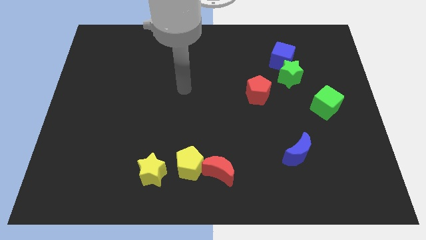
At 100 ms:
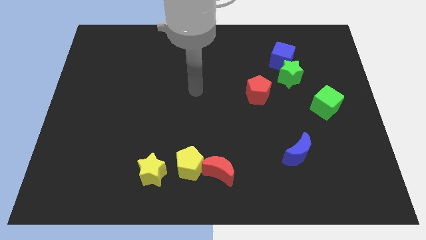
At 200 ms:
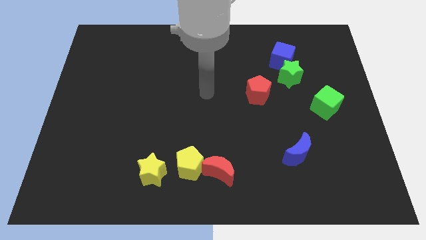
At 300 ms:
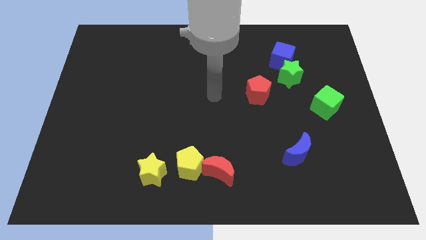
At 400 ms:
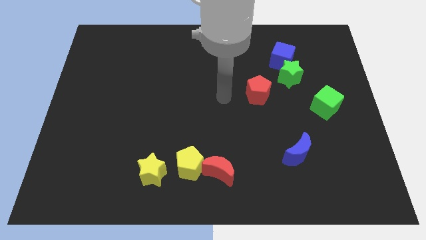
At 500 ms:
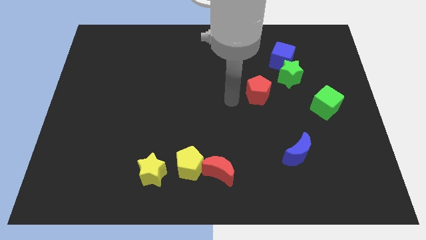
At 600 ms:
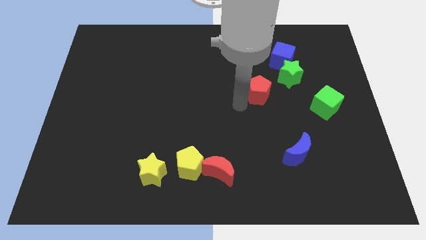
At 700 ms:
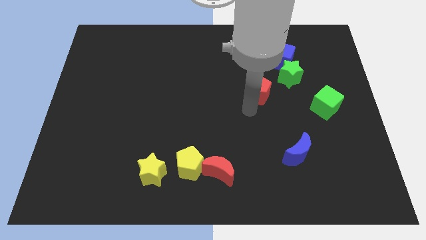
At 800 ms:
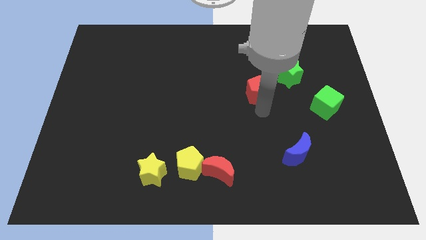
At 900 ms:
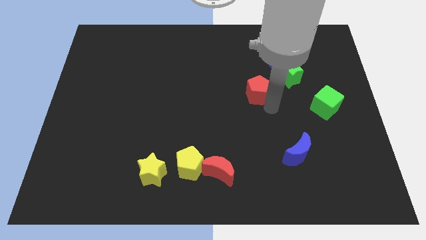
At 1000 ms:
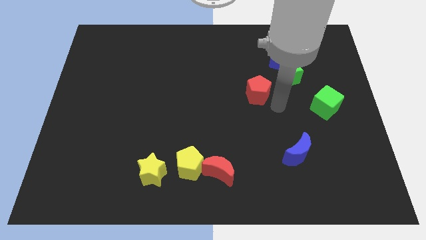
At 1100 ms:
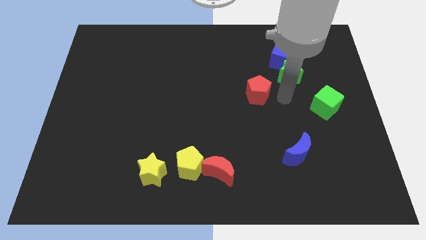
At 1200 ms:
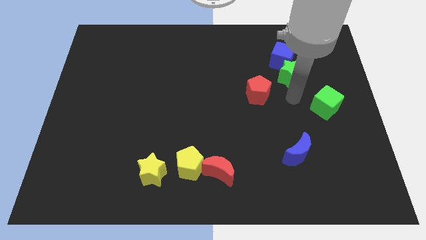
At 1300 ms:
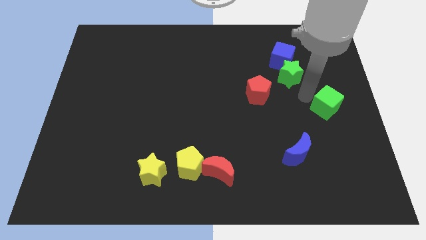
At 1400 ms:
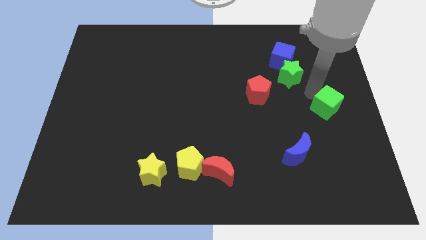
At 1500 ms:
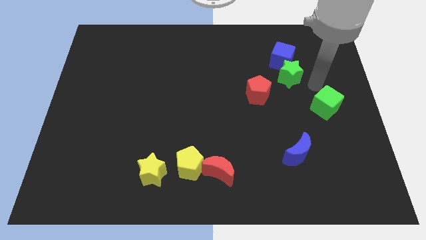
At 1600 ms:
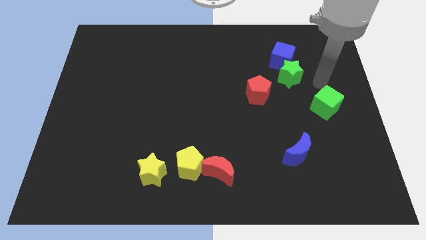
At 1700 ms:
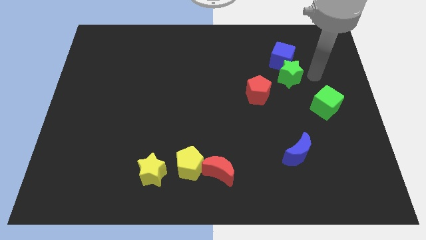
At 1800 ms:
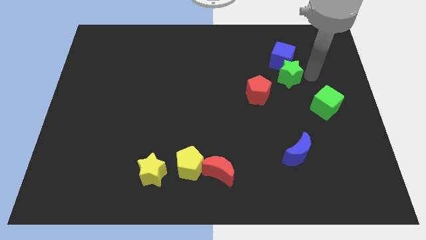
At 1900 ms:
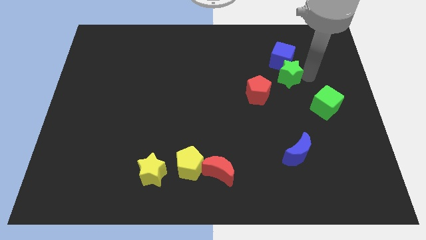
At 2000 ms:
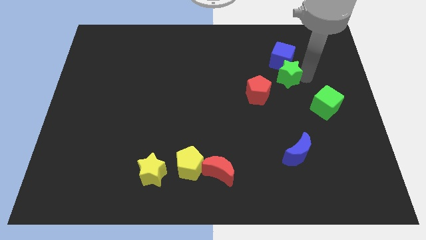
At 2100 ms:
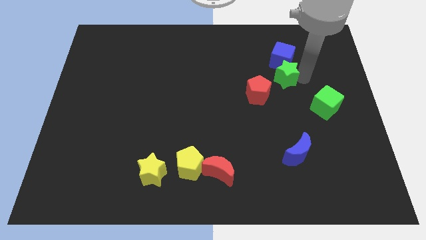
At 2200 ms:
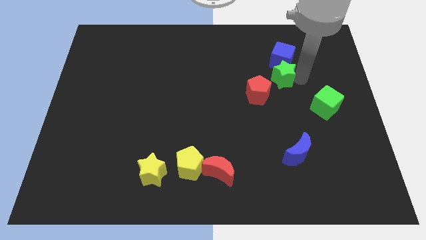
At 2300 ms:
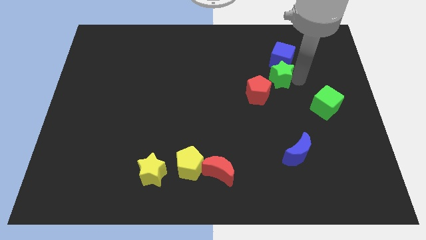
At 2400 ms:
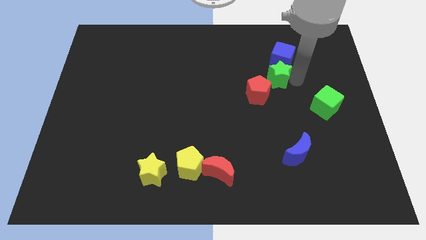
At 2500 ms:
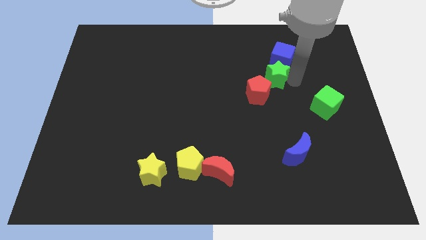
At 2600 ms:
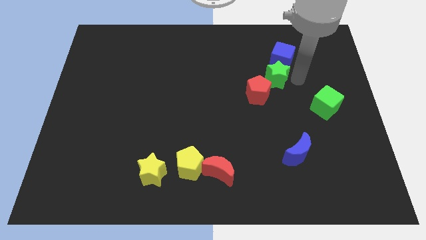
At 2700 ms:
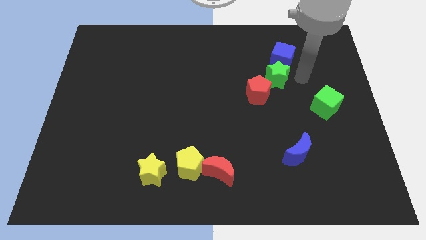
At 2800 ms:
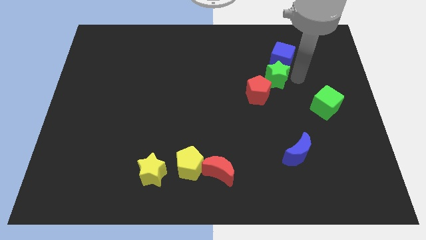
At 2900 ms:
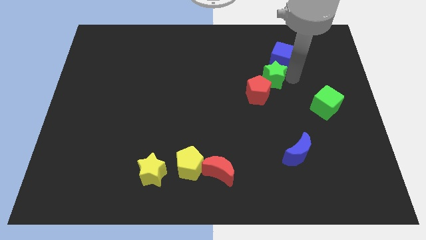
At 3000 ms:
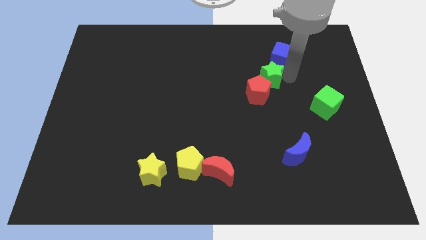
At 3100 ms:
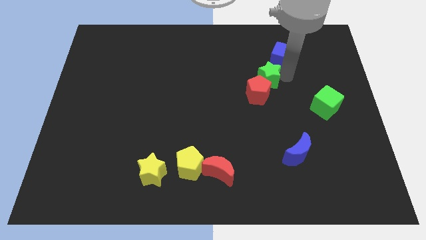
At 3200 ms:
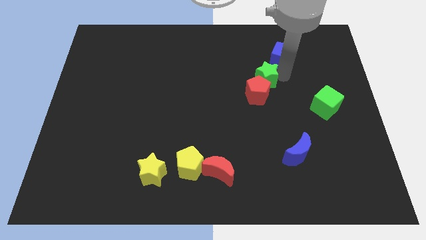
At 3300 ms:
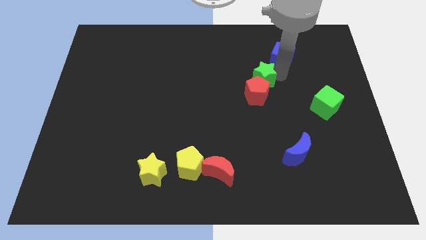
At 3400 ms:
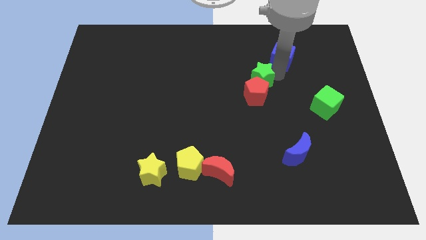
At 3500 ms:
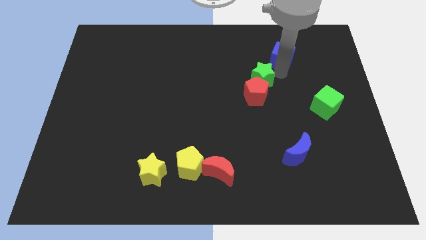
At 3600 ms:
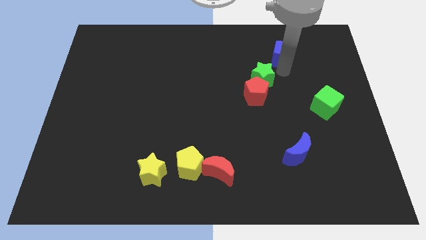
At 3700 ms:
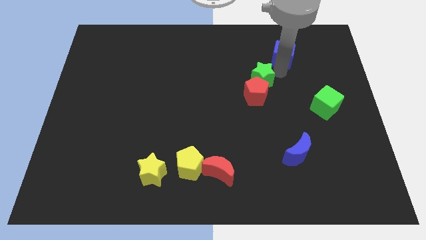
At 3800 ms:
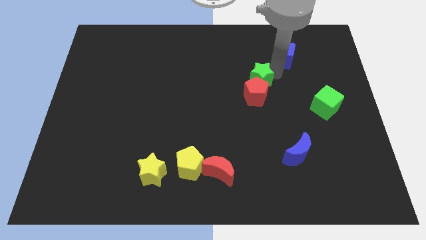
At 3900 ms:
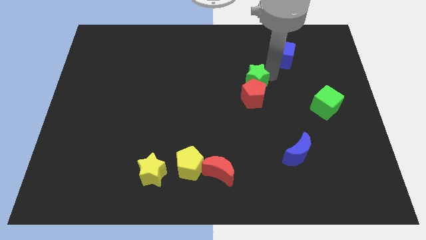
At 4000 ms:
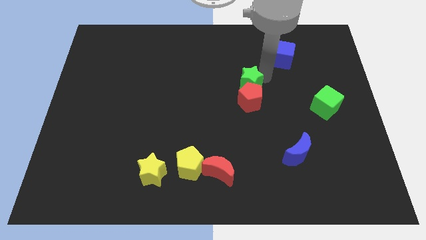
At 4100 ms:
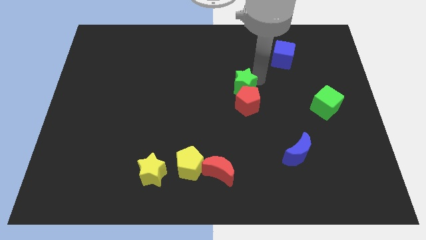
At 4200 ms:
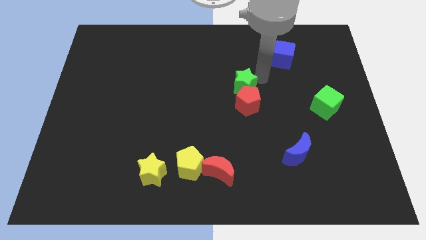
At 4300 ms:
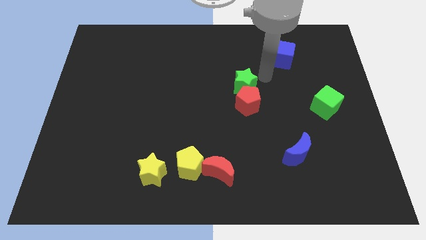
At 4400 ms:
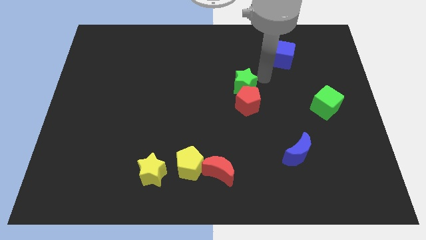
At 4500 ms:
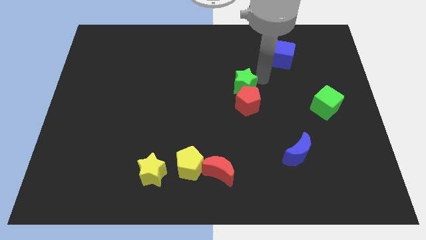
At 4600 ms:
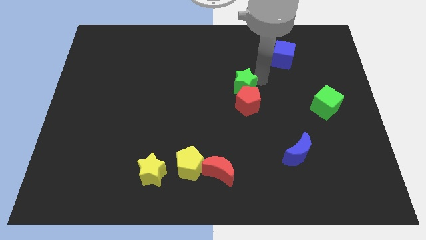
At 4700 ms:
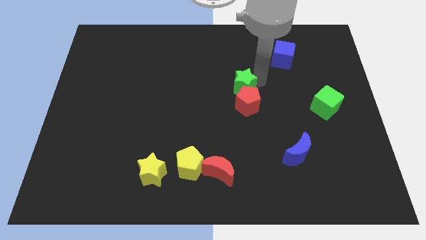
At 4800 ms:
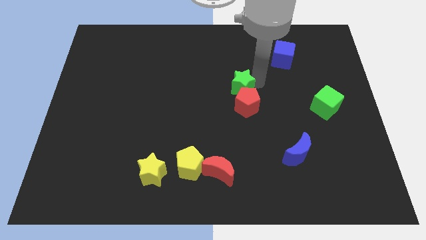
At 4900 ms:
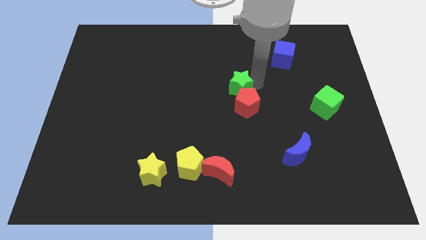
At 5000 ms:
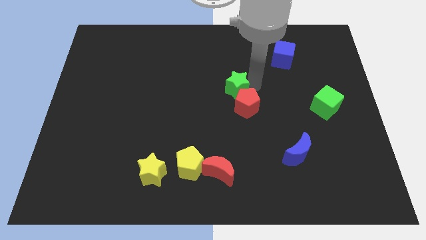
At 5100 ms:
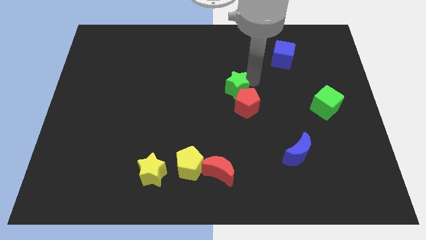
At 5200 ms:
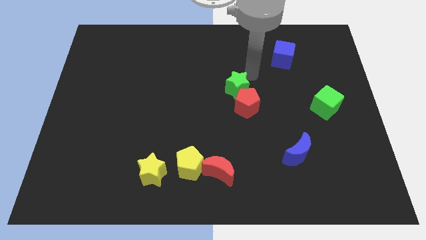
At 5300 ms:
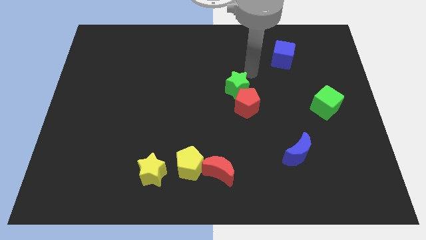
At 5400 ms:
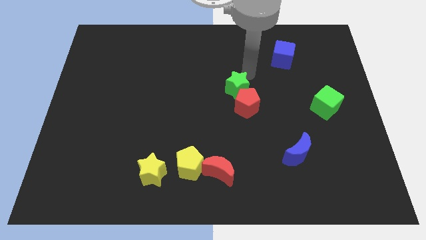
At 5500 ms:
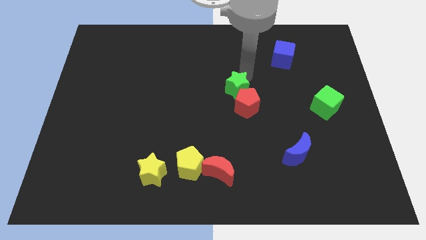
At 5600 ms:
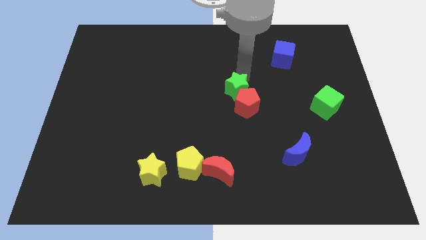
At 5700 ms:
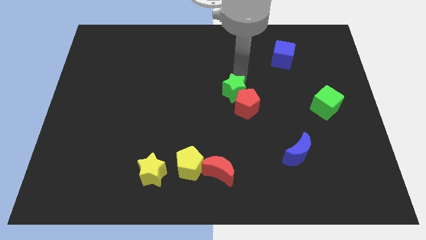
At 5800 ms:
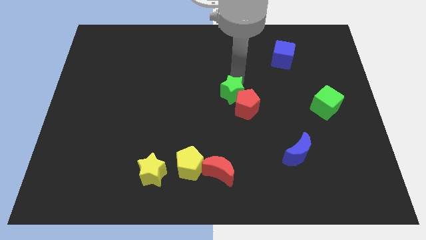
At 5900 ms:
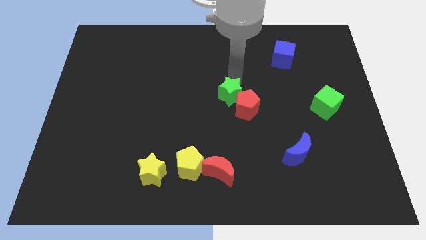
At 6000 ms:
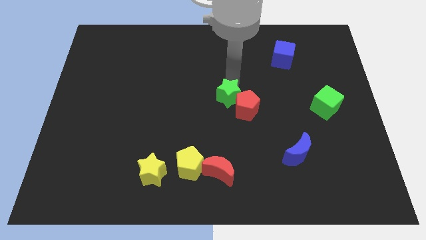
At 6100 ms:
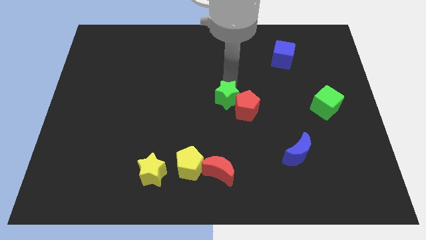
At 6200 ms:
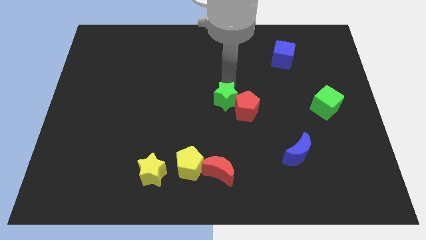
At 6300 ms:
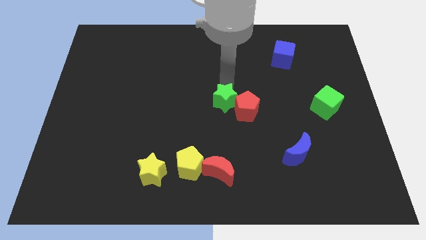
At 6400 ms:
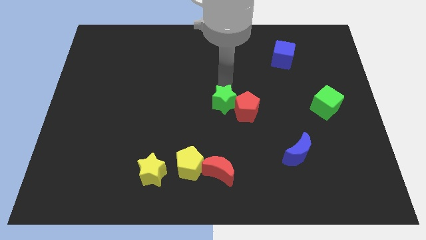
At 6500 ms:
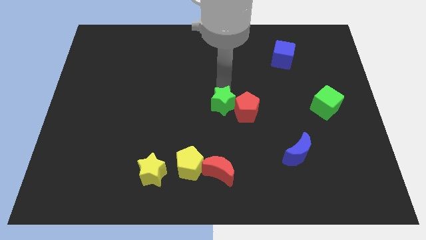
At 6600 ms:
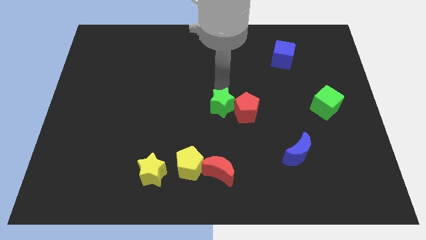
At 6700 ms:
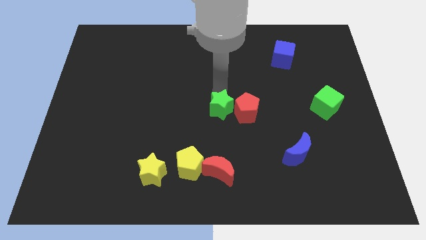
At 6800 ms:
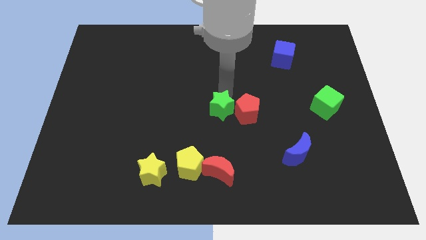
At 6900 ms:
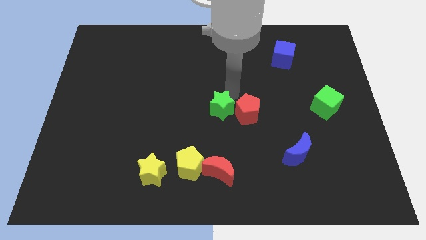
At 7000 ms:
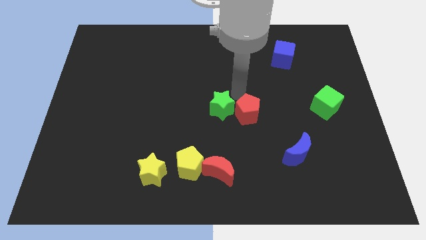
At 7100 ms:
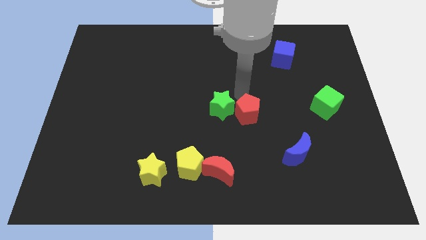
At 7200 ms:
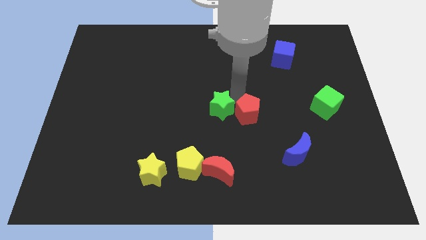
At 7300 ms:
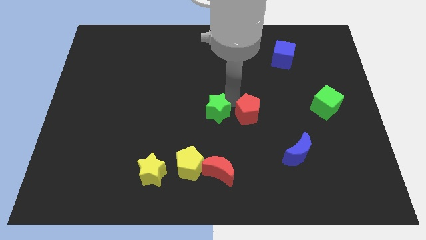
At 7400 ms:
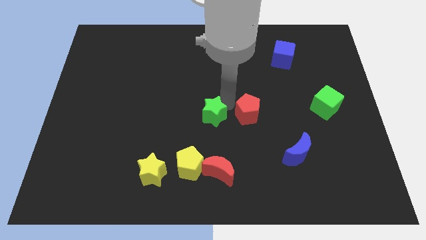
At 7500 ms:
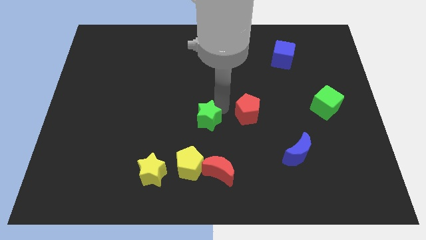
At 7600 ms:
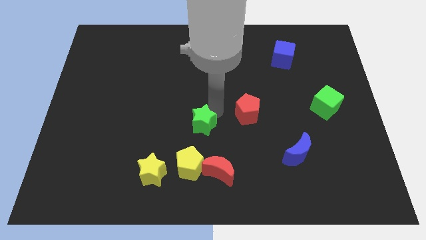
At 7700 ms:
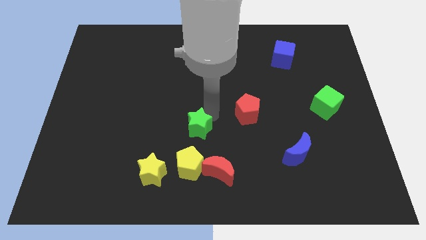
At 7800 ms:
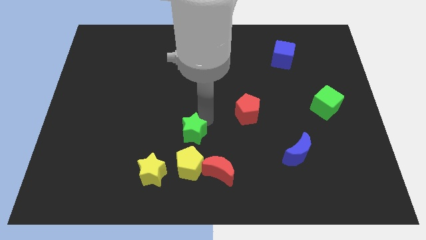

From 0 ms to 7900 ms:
move the green star diagonally up and to the right of the yellow star
